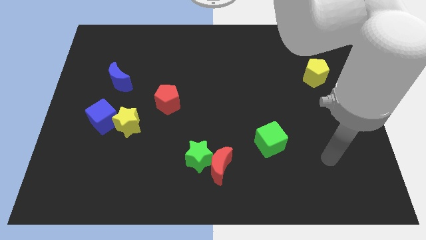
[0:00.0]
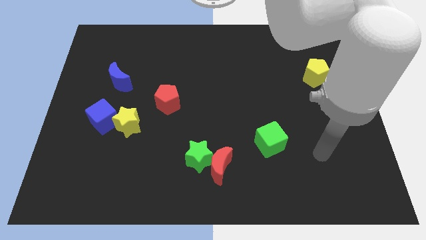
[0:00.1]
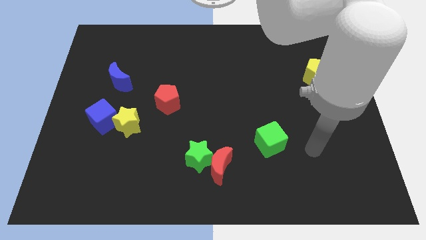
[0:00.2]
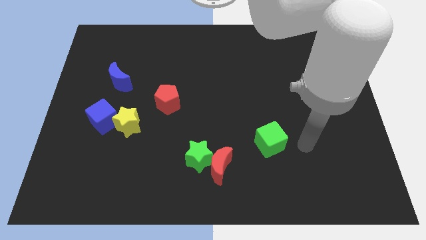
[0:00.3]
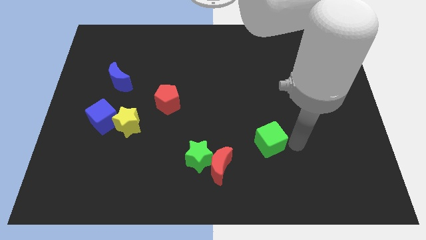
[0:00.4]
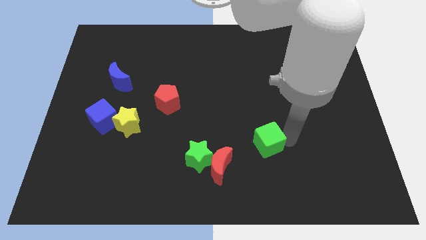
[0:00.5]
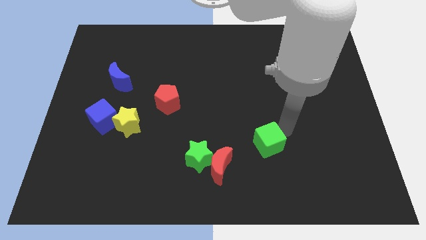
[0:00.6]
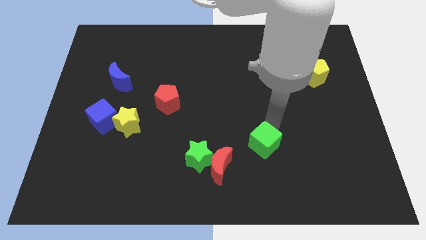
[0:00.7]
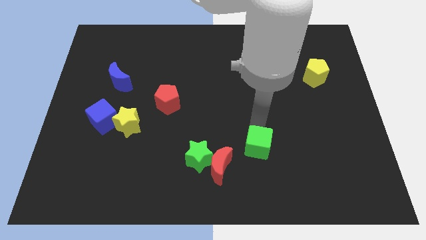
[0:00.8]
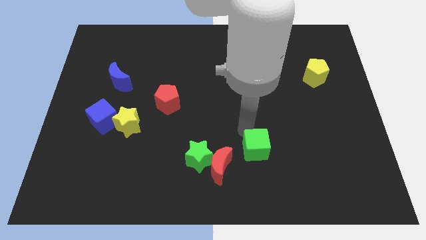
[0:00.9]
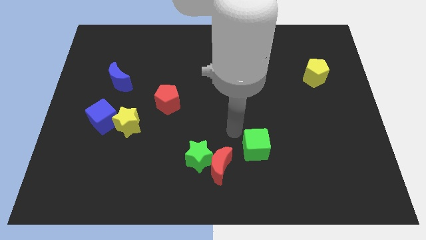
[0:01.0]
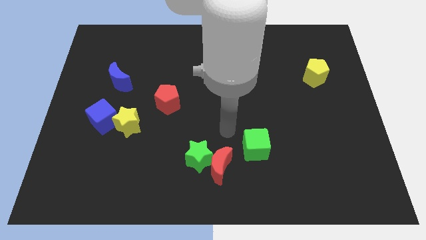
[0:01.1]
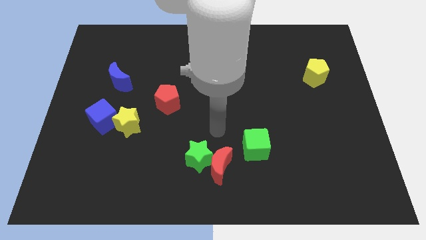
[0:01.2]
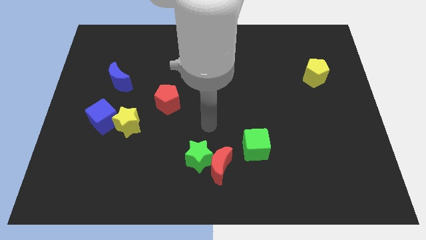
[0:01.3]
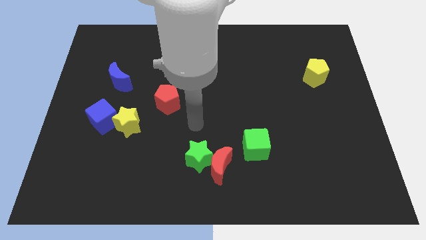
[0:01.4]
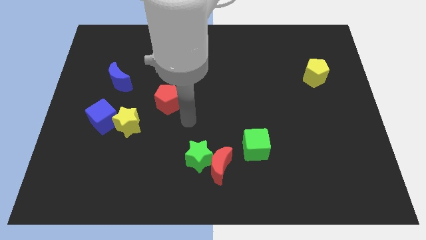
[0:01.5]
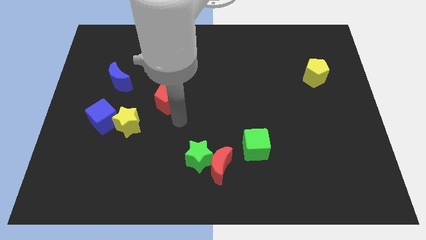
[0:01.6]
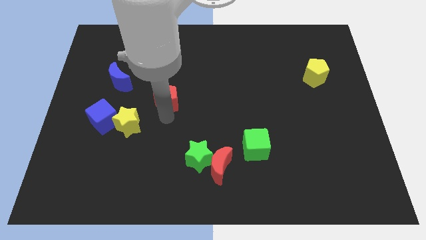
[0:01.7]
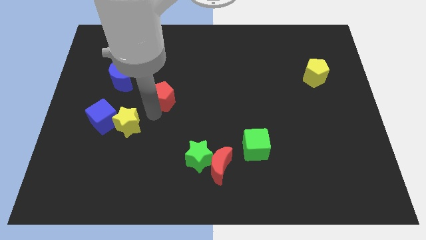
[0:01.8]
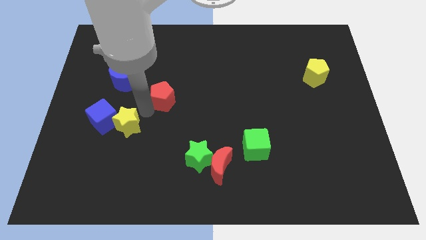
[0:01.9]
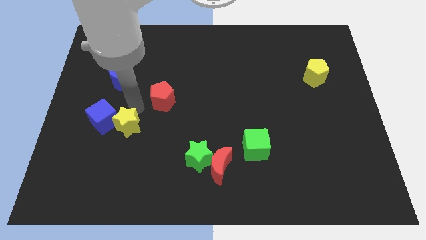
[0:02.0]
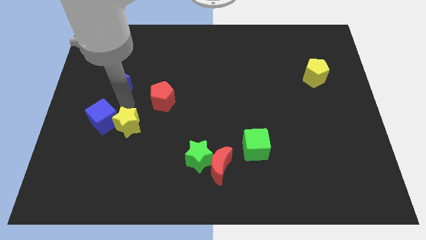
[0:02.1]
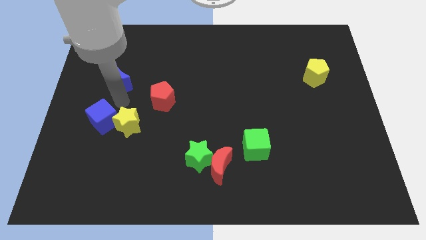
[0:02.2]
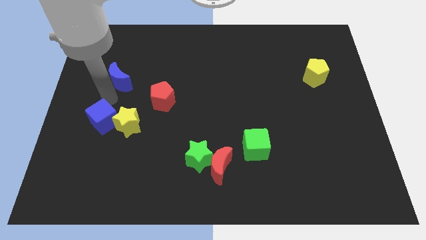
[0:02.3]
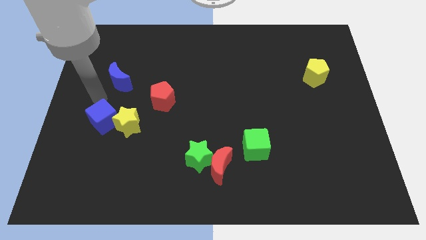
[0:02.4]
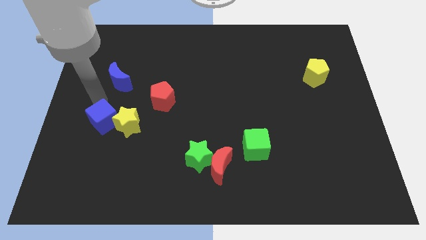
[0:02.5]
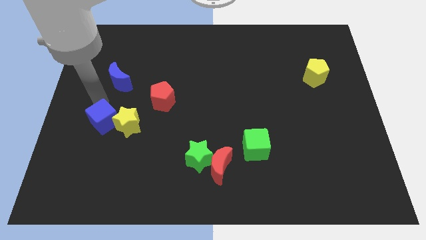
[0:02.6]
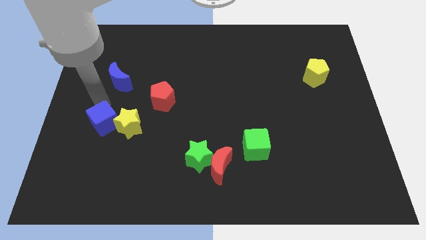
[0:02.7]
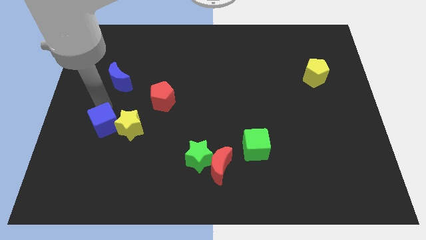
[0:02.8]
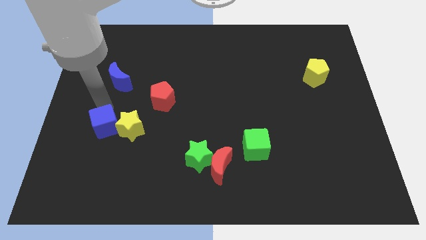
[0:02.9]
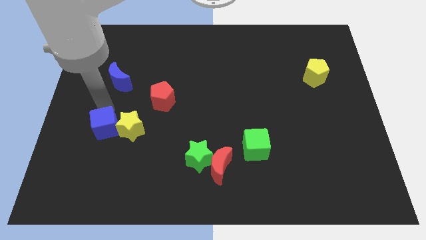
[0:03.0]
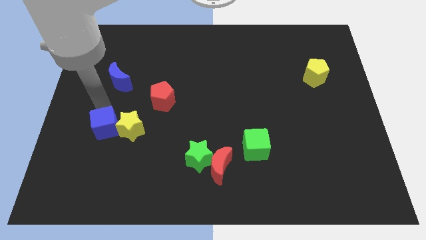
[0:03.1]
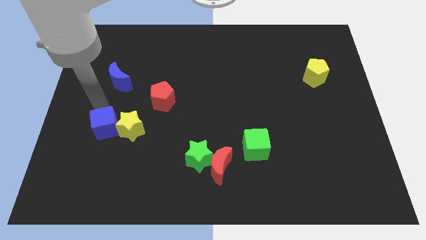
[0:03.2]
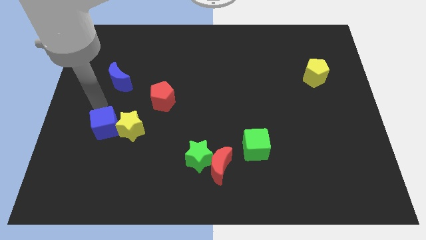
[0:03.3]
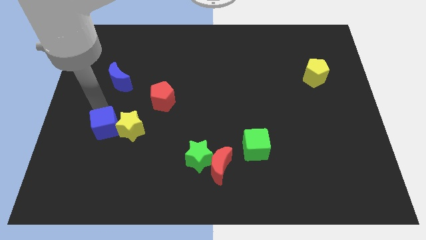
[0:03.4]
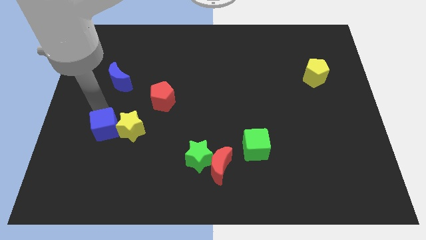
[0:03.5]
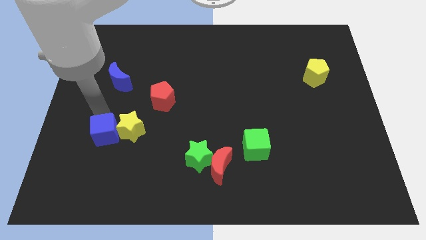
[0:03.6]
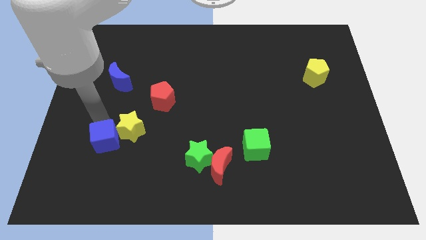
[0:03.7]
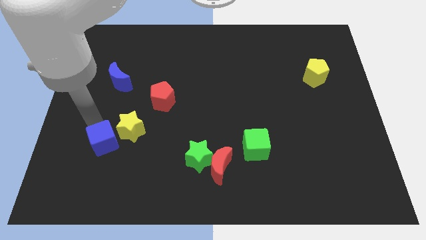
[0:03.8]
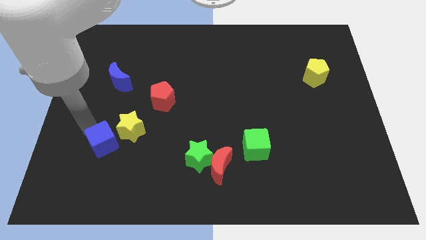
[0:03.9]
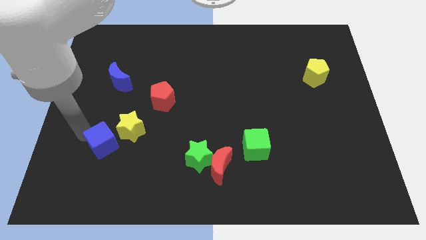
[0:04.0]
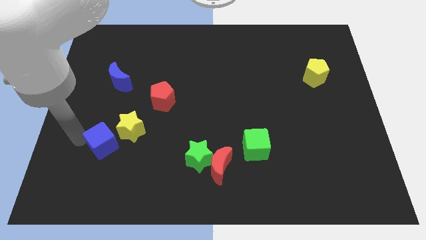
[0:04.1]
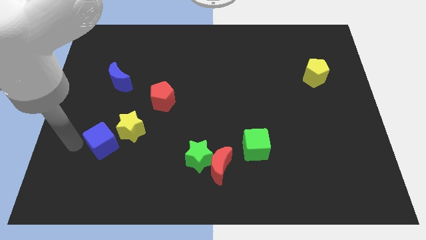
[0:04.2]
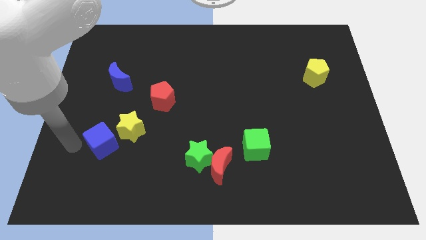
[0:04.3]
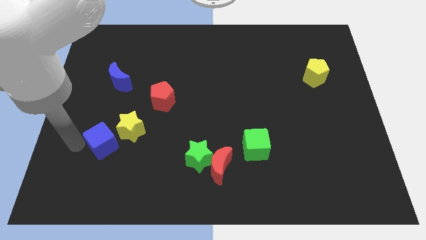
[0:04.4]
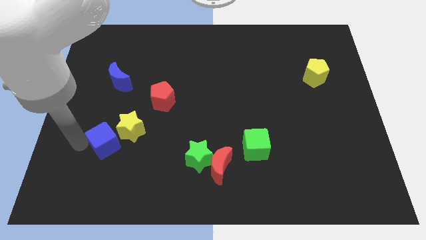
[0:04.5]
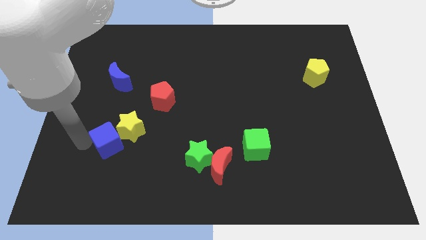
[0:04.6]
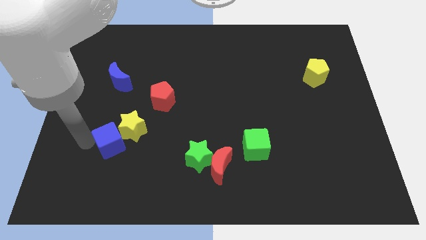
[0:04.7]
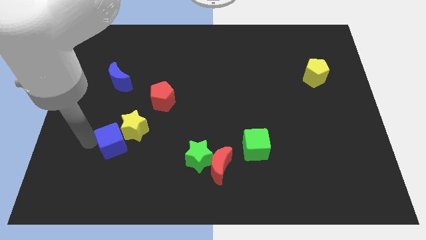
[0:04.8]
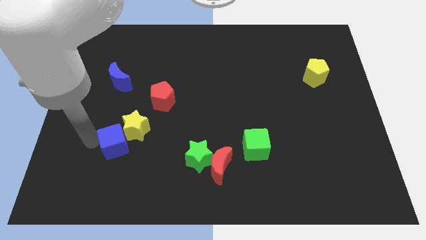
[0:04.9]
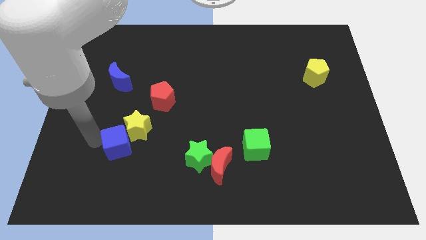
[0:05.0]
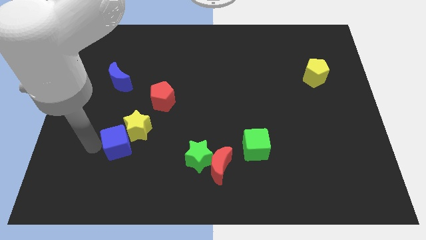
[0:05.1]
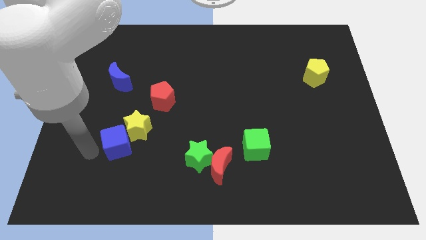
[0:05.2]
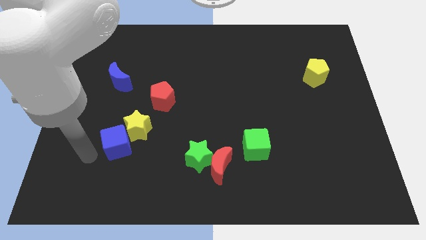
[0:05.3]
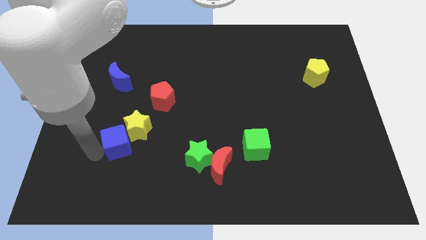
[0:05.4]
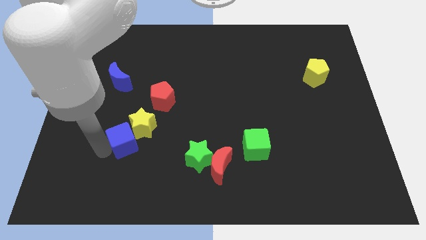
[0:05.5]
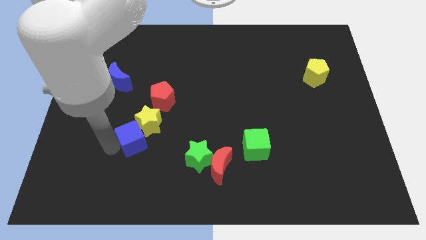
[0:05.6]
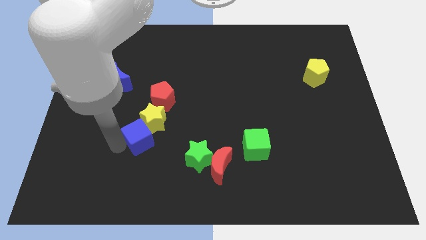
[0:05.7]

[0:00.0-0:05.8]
move the blue cube slightly right

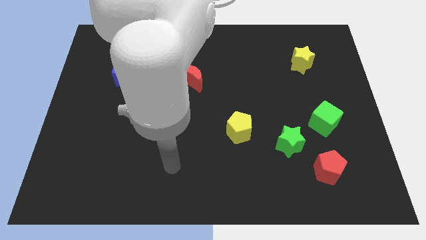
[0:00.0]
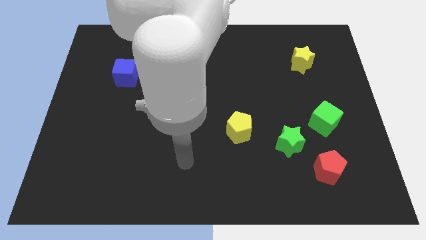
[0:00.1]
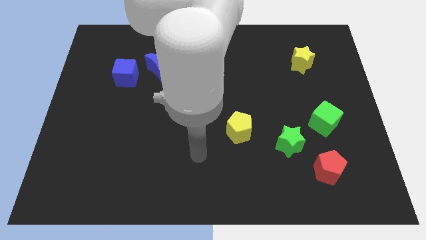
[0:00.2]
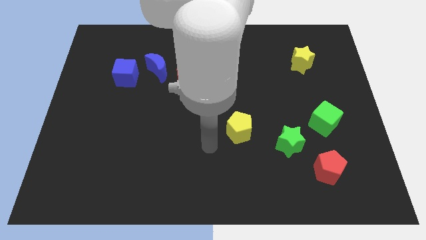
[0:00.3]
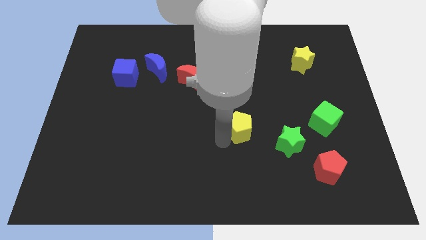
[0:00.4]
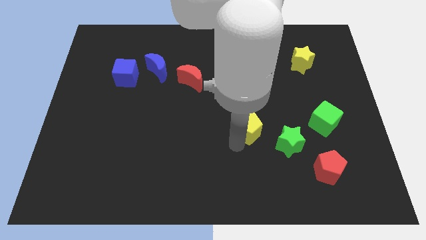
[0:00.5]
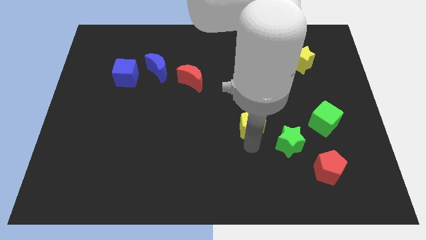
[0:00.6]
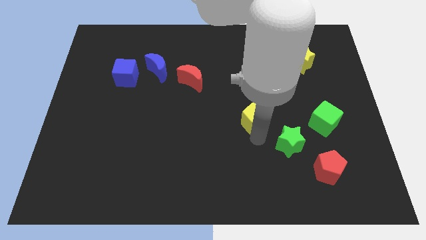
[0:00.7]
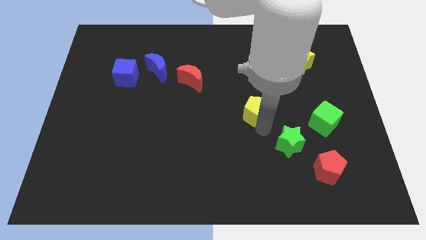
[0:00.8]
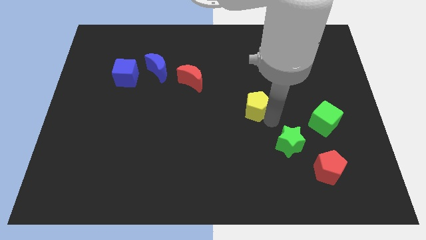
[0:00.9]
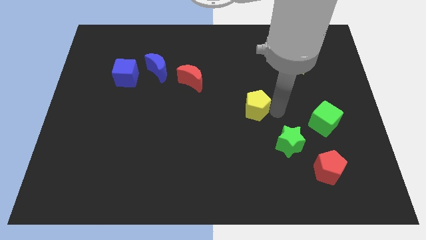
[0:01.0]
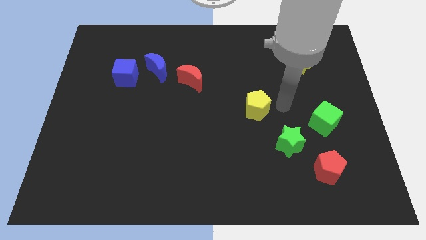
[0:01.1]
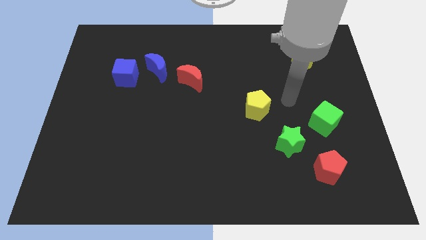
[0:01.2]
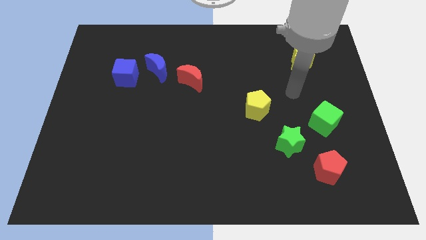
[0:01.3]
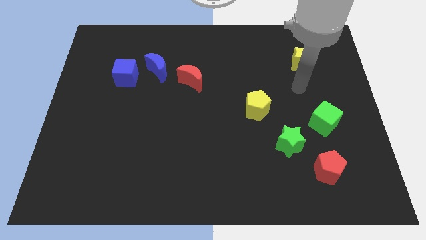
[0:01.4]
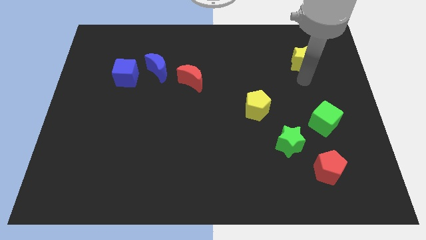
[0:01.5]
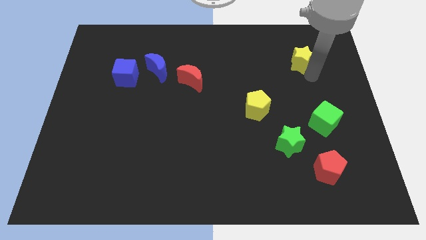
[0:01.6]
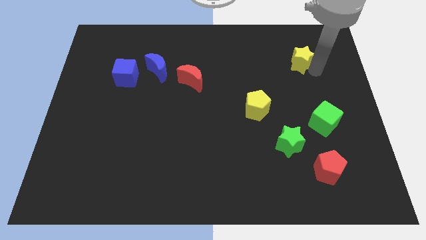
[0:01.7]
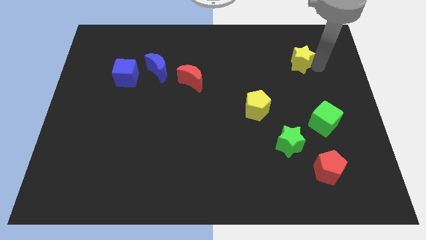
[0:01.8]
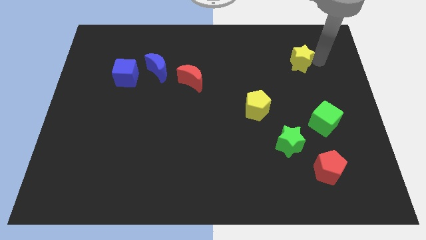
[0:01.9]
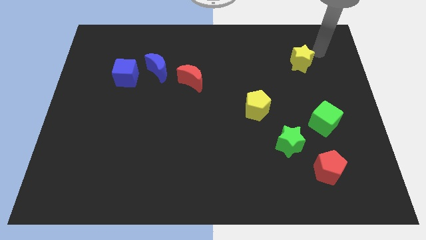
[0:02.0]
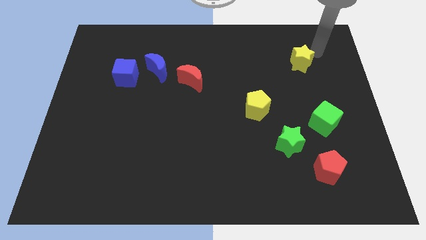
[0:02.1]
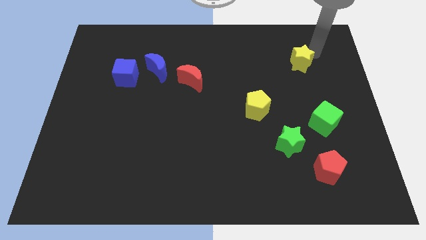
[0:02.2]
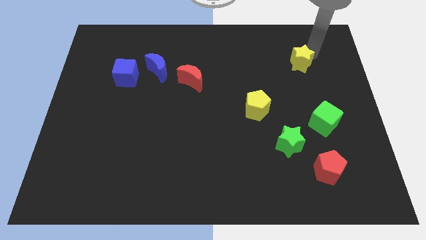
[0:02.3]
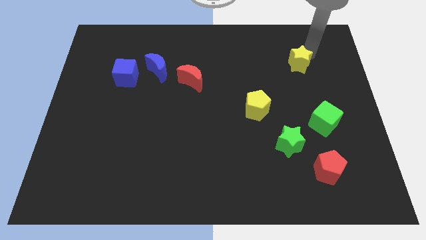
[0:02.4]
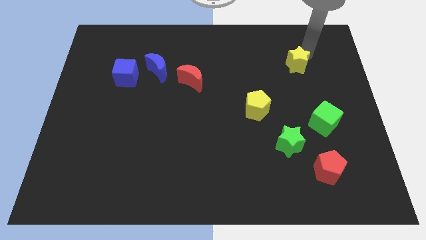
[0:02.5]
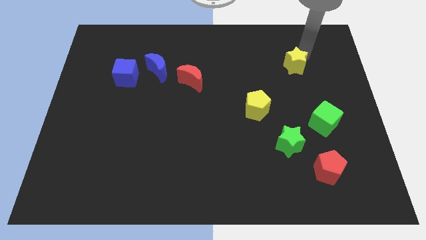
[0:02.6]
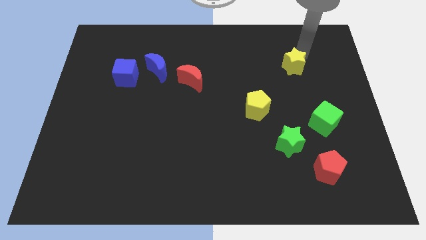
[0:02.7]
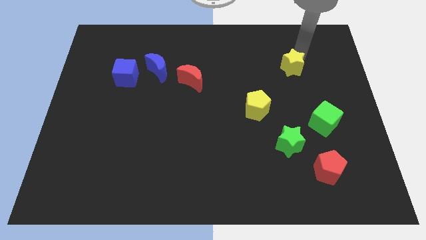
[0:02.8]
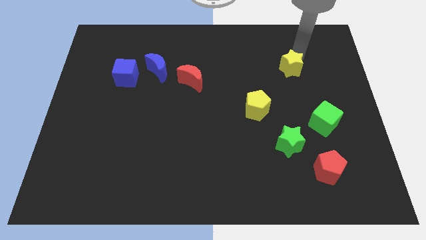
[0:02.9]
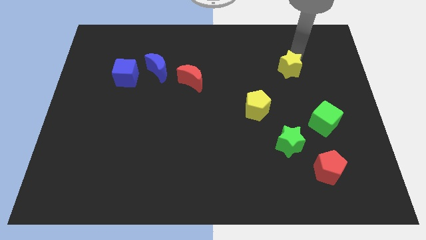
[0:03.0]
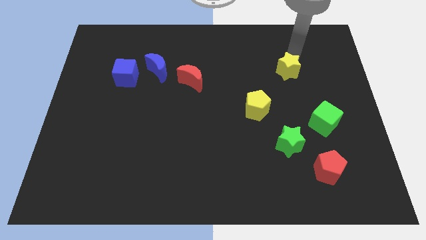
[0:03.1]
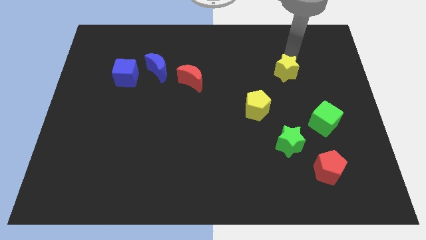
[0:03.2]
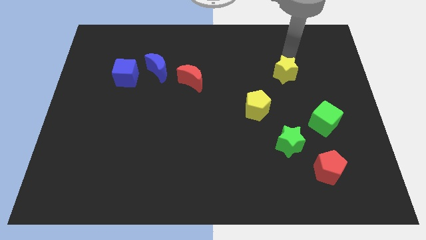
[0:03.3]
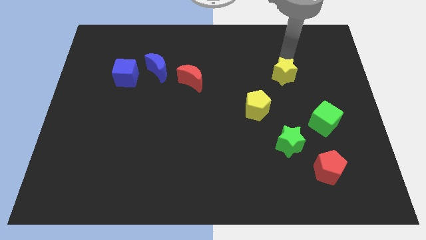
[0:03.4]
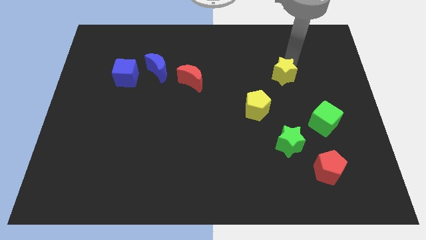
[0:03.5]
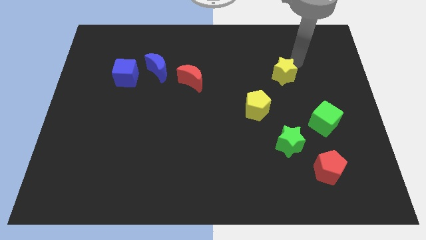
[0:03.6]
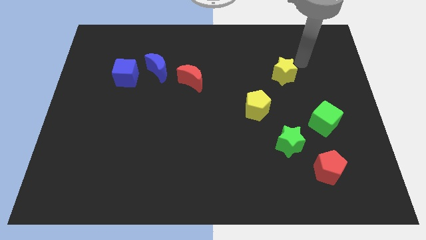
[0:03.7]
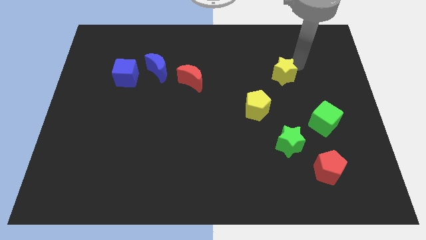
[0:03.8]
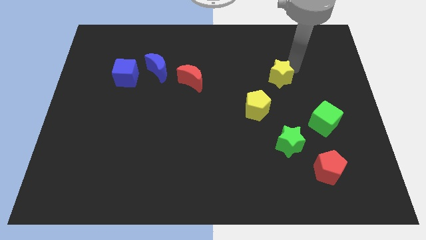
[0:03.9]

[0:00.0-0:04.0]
slide the yellow star down and then left slightly
